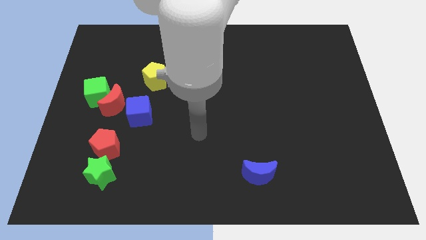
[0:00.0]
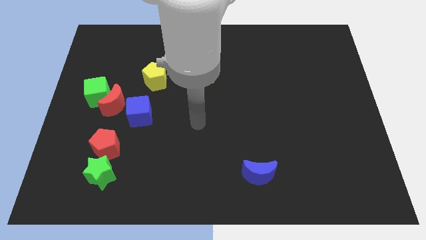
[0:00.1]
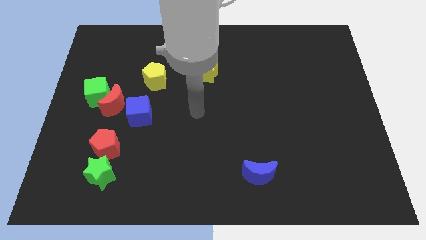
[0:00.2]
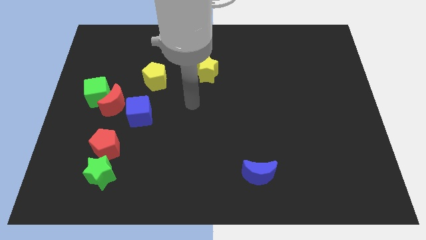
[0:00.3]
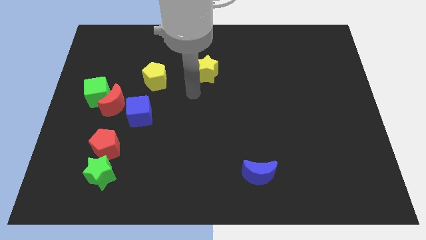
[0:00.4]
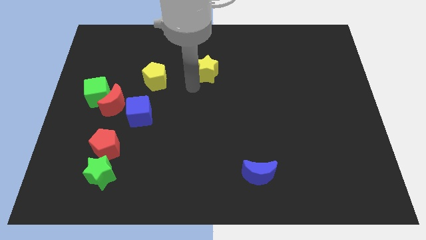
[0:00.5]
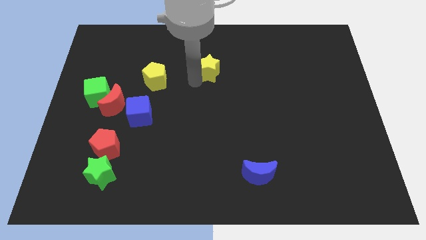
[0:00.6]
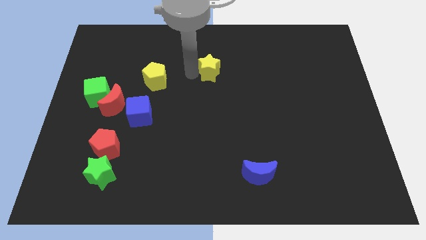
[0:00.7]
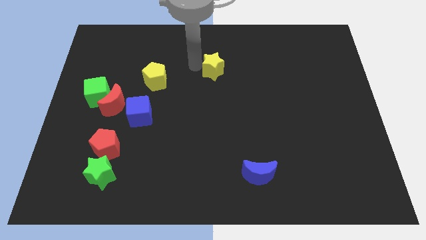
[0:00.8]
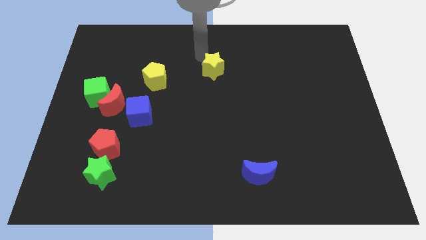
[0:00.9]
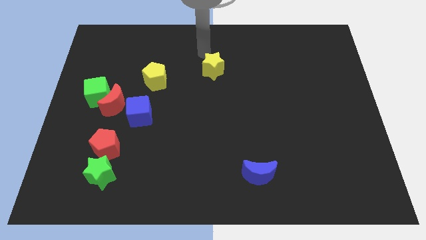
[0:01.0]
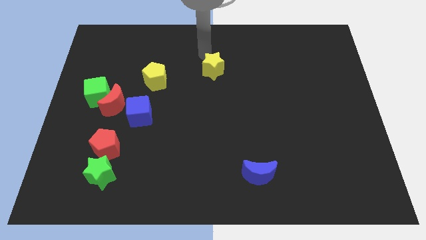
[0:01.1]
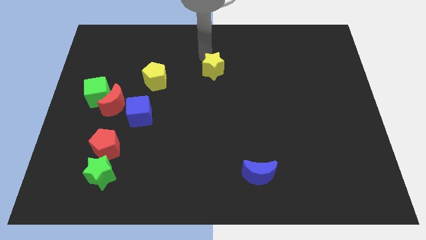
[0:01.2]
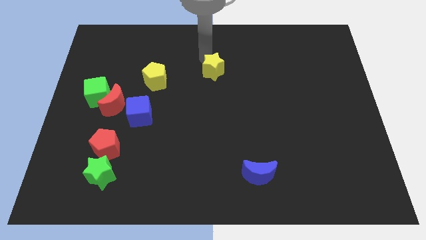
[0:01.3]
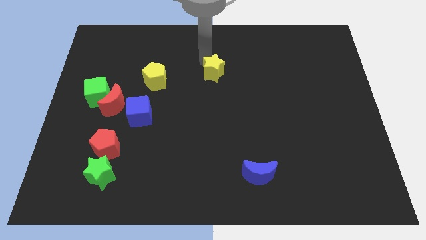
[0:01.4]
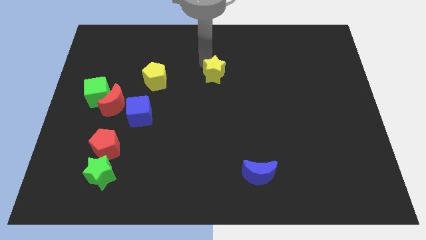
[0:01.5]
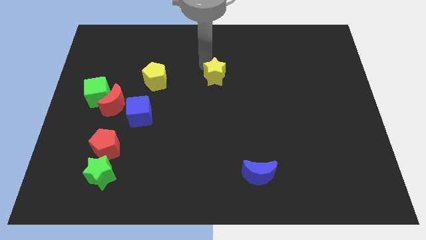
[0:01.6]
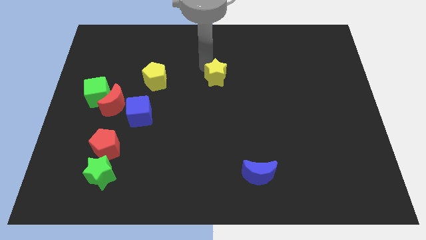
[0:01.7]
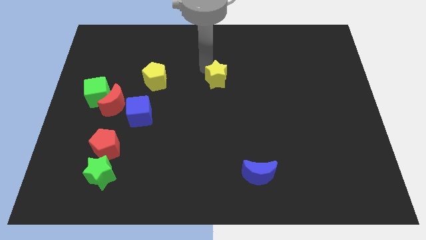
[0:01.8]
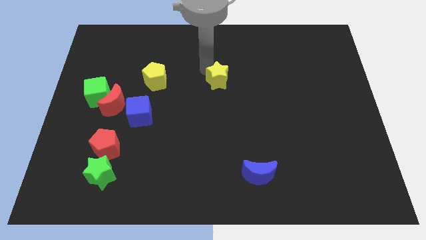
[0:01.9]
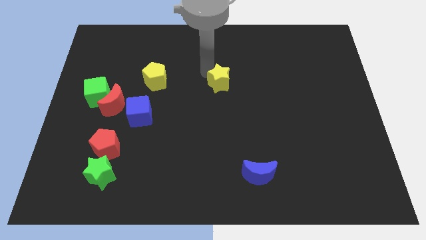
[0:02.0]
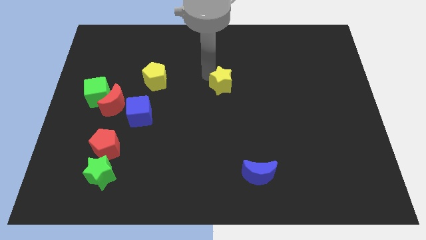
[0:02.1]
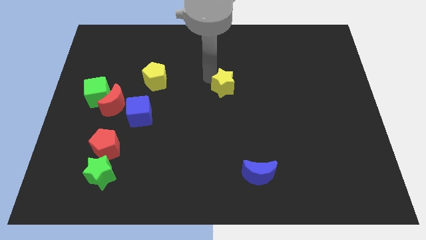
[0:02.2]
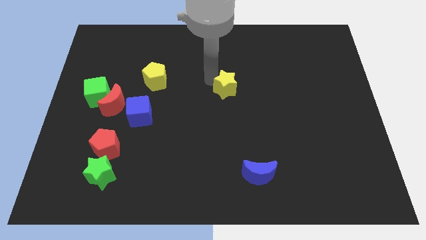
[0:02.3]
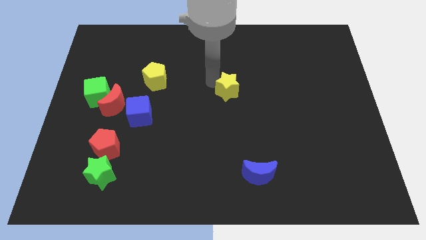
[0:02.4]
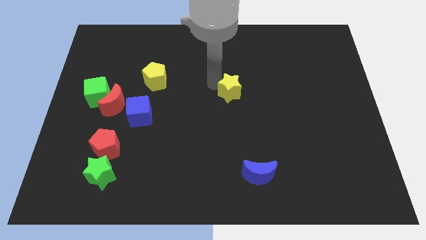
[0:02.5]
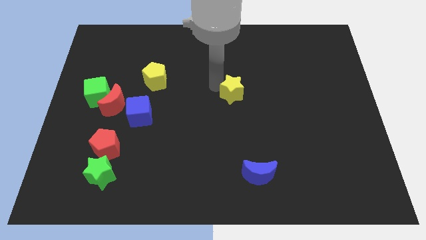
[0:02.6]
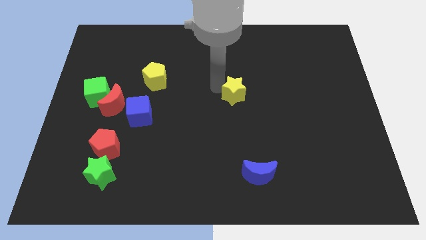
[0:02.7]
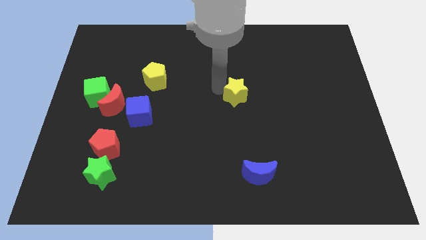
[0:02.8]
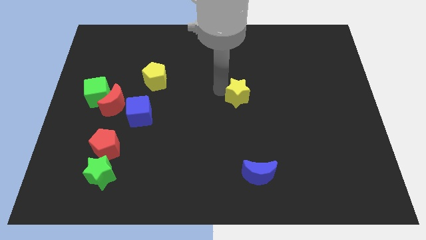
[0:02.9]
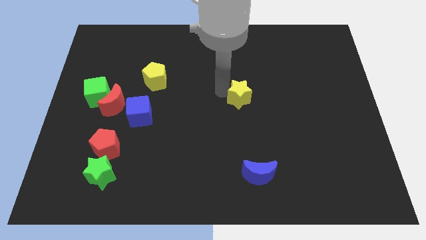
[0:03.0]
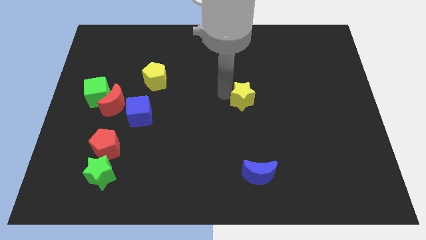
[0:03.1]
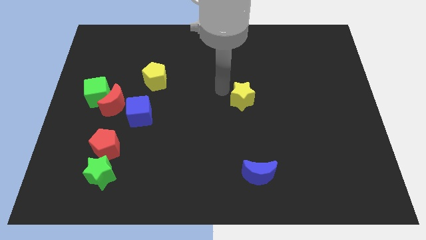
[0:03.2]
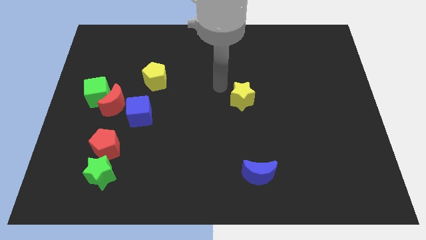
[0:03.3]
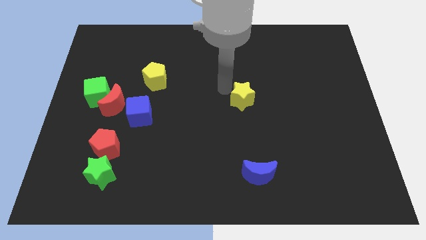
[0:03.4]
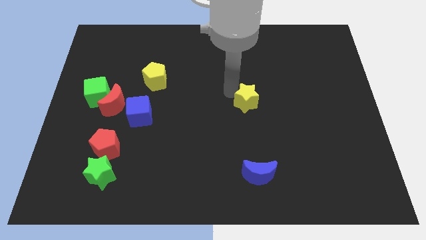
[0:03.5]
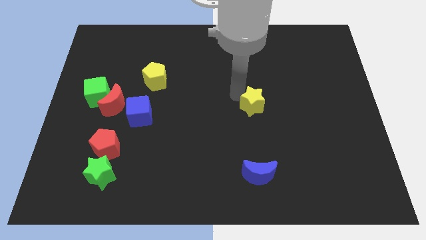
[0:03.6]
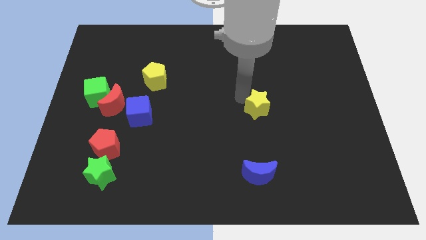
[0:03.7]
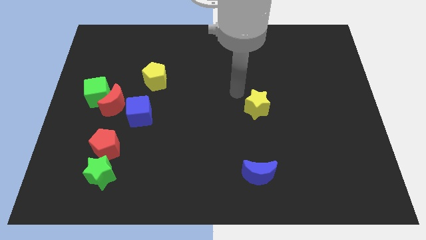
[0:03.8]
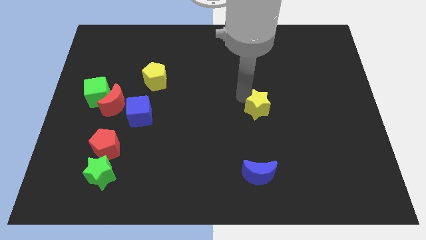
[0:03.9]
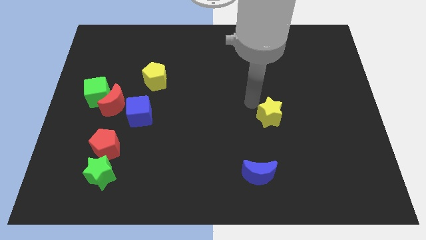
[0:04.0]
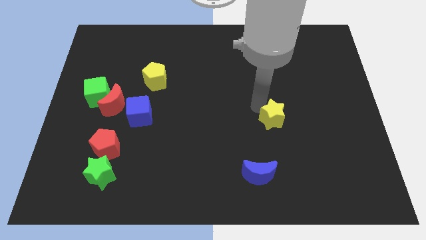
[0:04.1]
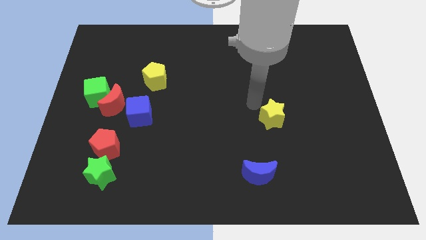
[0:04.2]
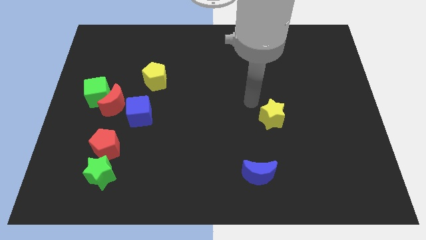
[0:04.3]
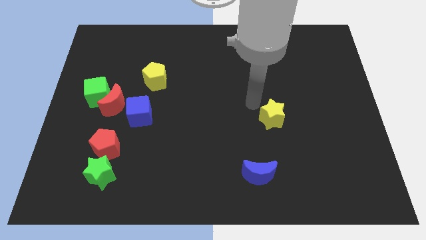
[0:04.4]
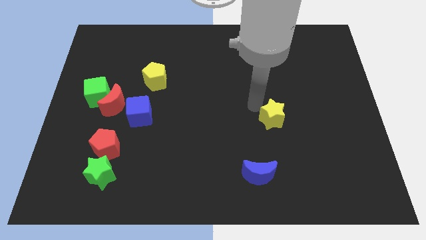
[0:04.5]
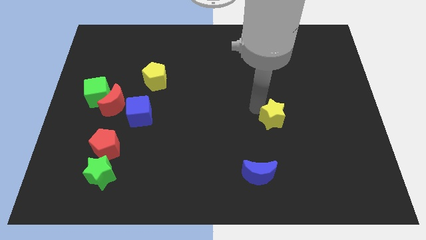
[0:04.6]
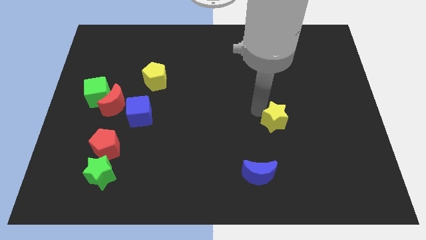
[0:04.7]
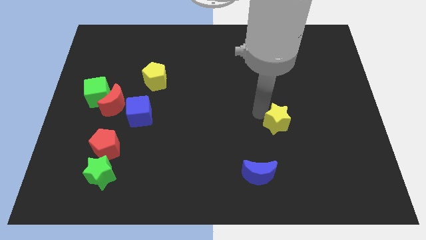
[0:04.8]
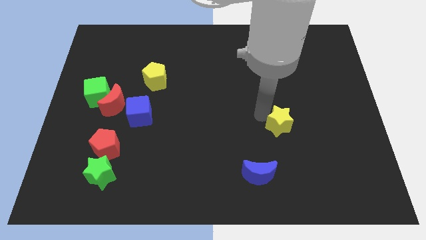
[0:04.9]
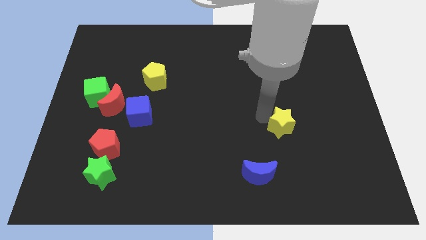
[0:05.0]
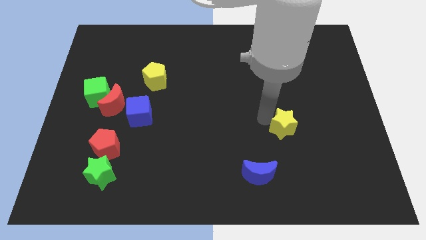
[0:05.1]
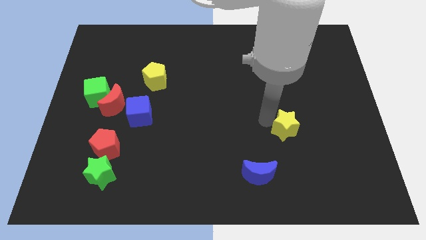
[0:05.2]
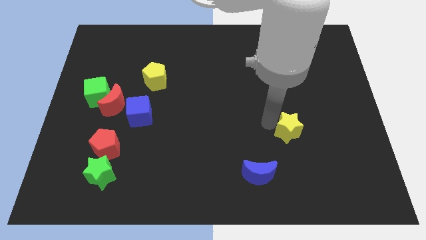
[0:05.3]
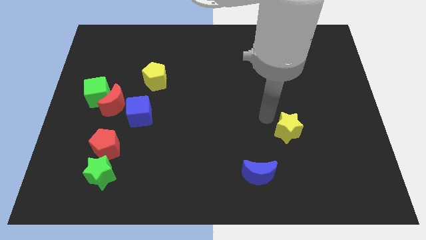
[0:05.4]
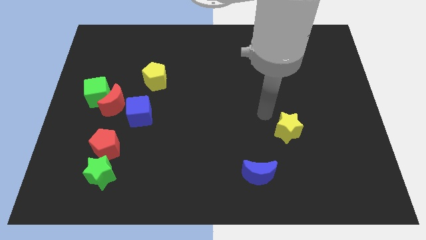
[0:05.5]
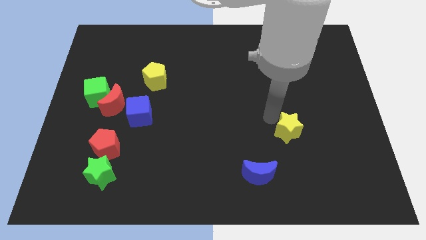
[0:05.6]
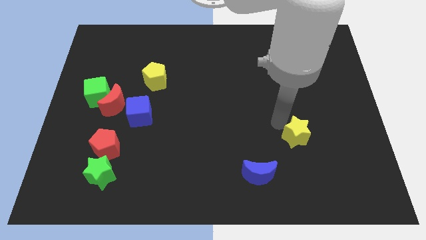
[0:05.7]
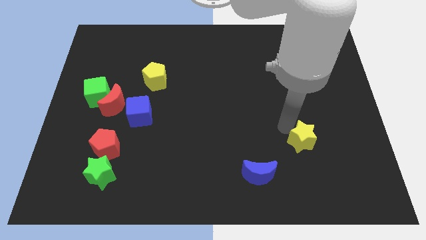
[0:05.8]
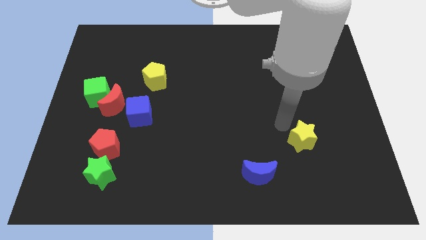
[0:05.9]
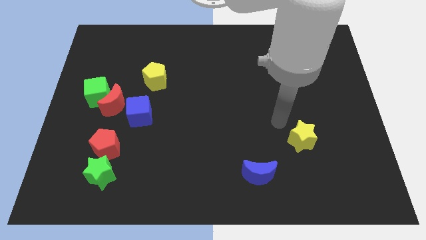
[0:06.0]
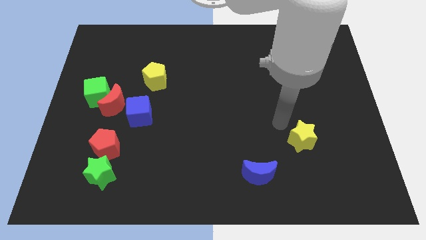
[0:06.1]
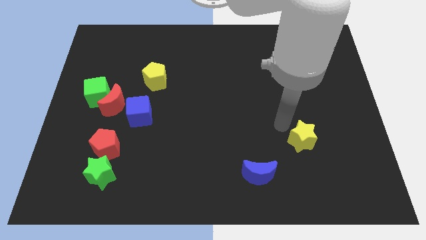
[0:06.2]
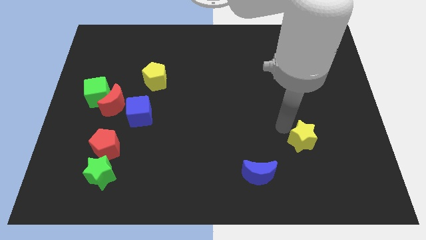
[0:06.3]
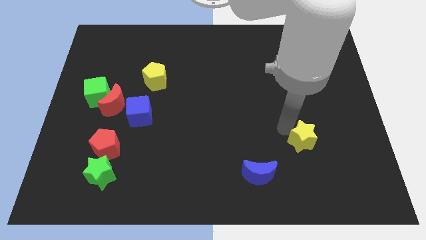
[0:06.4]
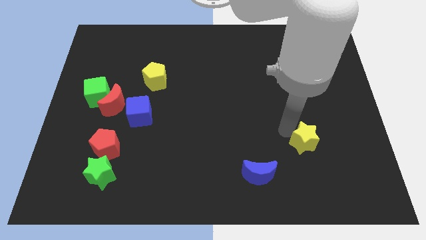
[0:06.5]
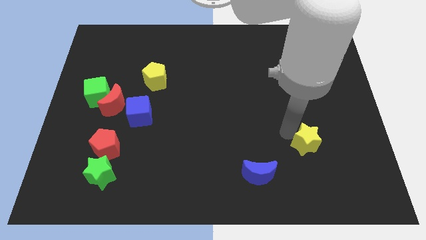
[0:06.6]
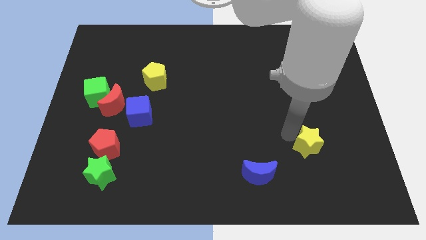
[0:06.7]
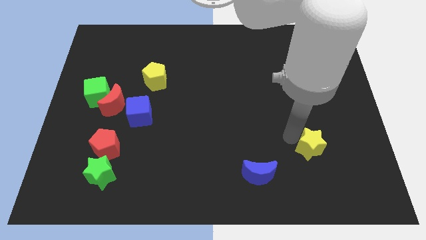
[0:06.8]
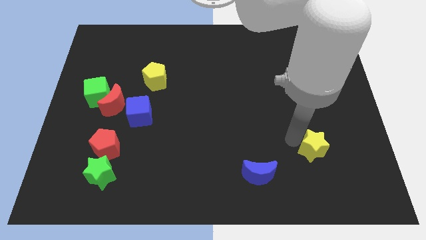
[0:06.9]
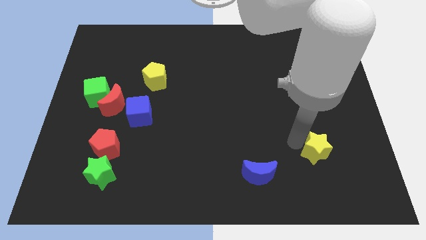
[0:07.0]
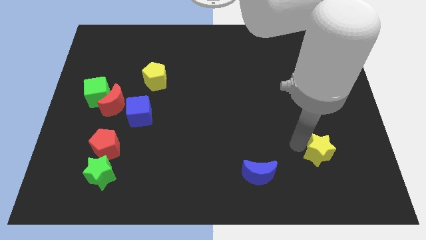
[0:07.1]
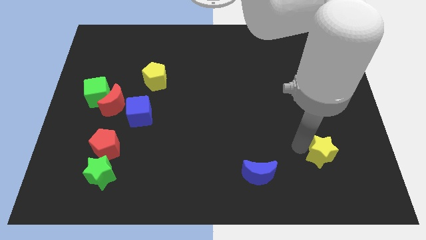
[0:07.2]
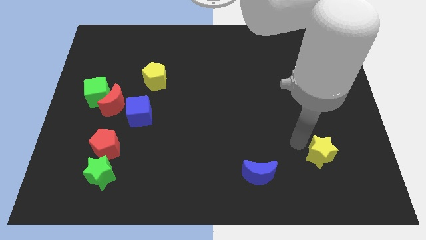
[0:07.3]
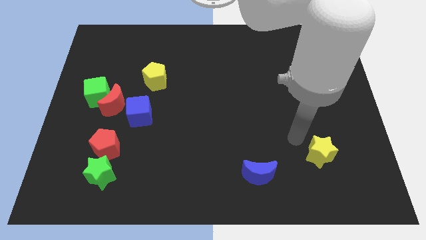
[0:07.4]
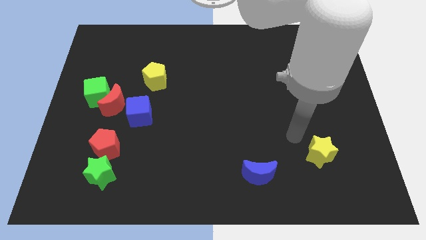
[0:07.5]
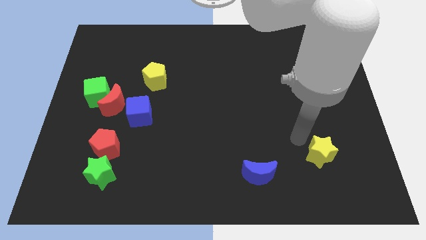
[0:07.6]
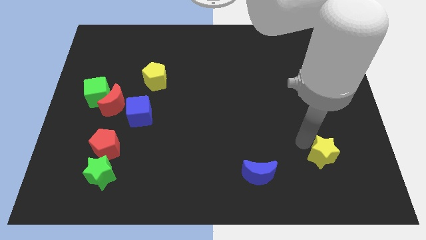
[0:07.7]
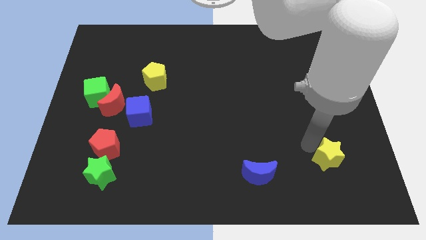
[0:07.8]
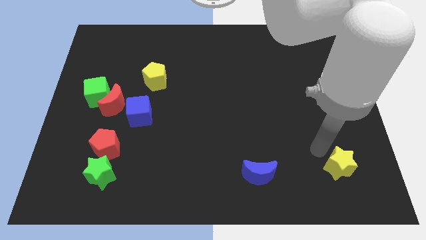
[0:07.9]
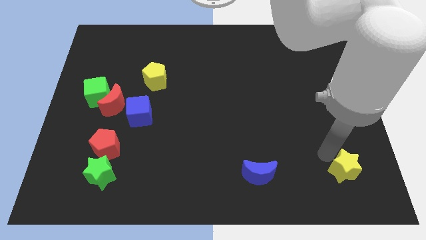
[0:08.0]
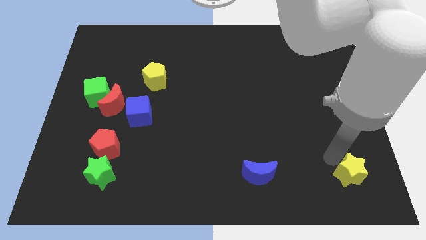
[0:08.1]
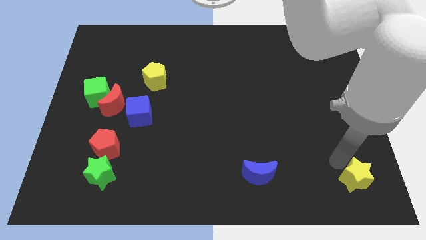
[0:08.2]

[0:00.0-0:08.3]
put the yellow star to the bottom right of the board
